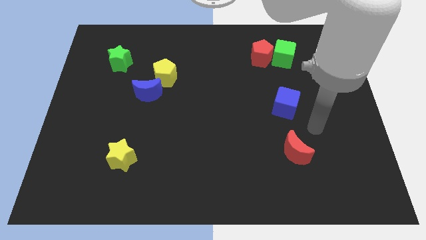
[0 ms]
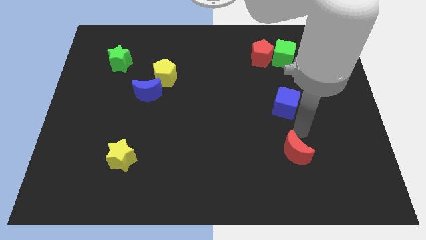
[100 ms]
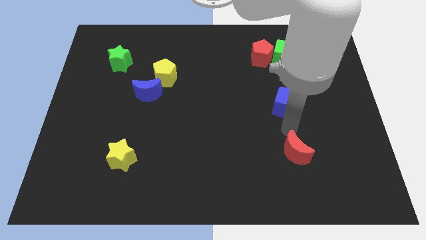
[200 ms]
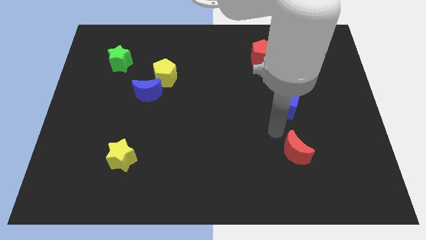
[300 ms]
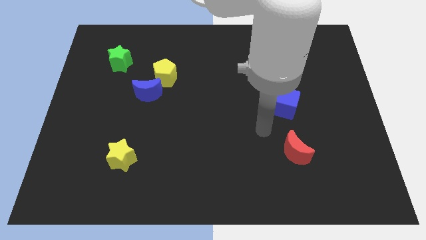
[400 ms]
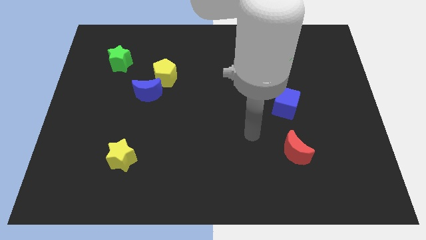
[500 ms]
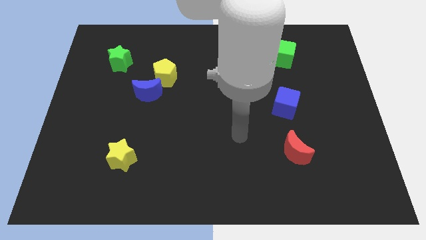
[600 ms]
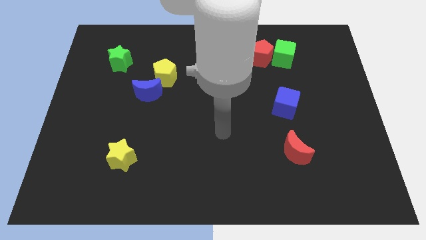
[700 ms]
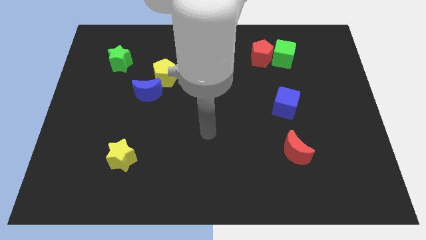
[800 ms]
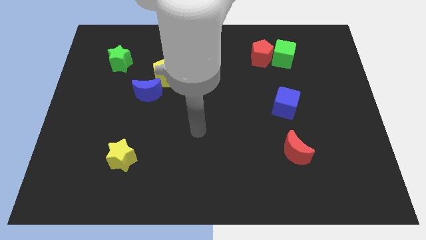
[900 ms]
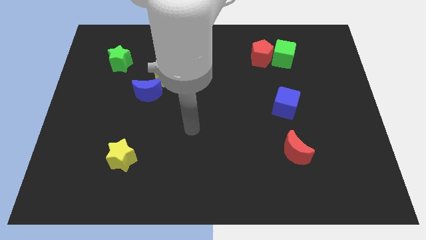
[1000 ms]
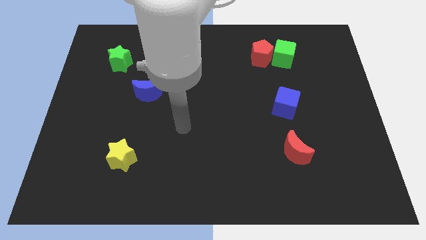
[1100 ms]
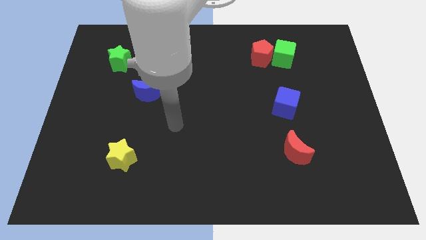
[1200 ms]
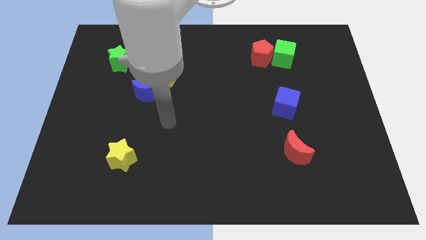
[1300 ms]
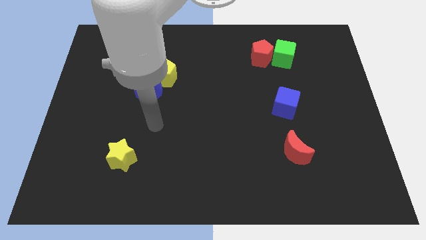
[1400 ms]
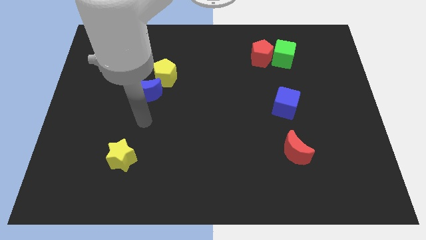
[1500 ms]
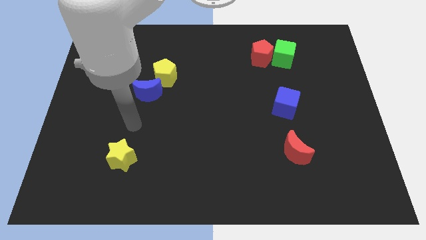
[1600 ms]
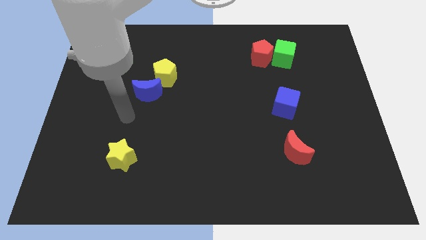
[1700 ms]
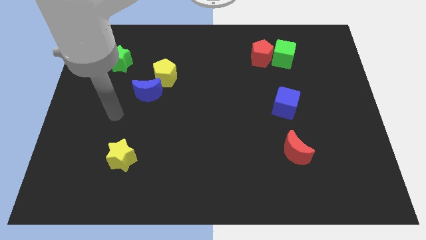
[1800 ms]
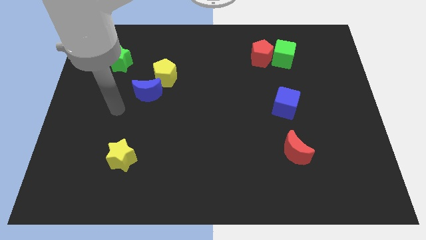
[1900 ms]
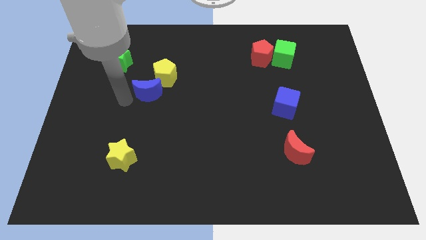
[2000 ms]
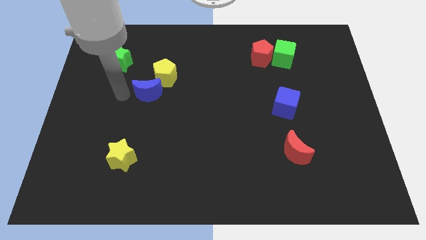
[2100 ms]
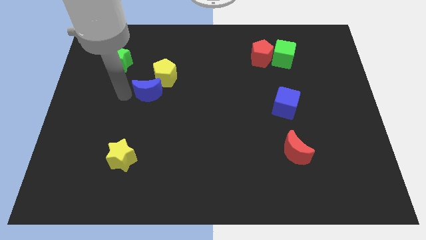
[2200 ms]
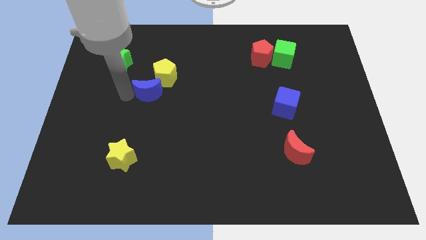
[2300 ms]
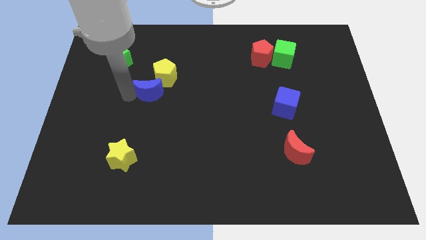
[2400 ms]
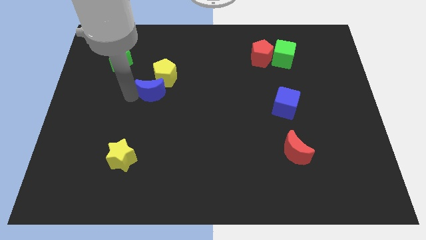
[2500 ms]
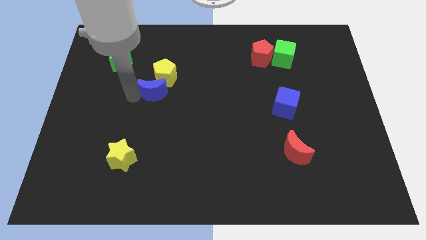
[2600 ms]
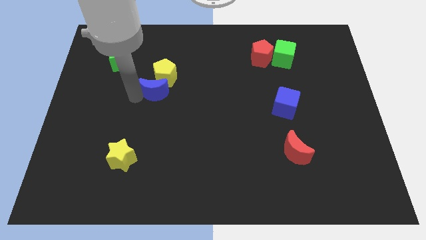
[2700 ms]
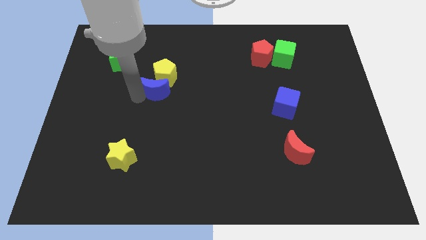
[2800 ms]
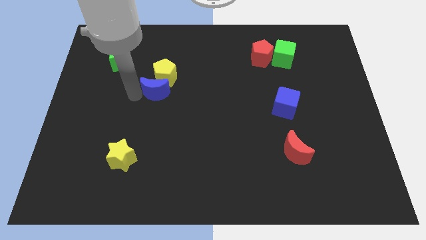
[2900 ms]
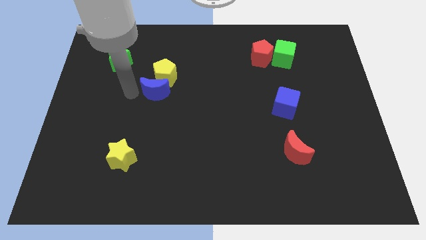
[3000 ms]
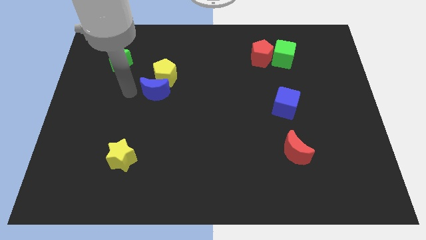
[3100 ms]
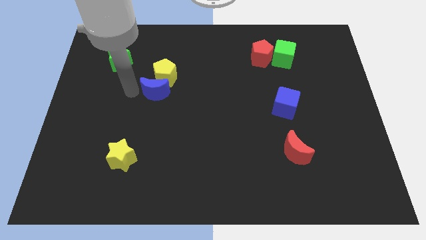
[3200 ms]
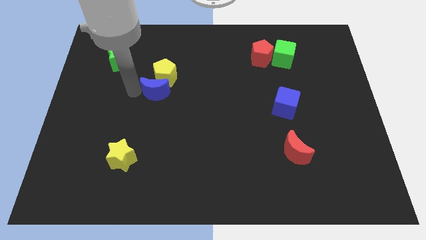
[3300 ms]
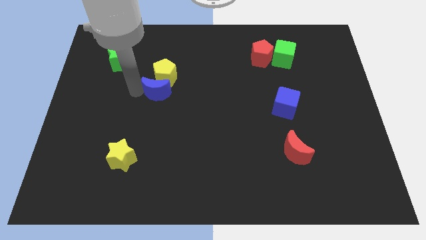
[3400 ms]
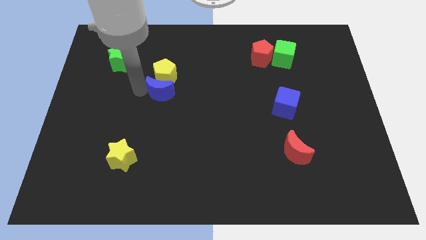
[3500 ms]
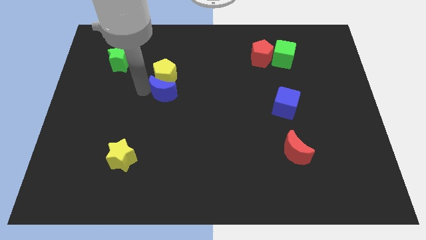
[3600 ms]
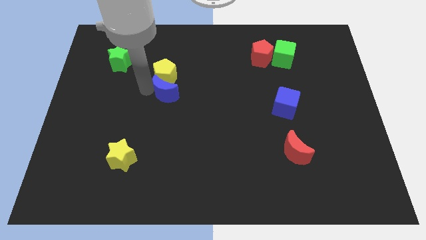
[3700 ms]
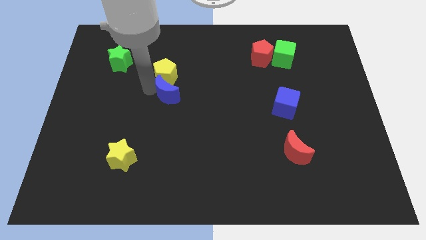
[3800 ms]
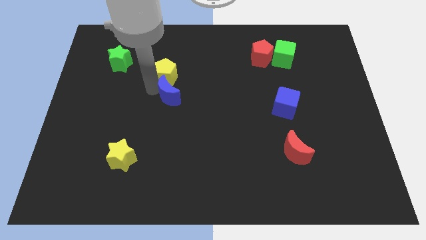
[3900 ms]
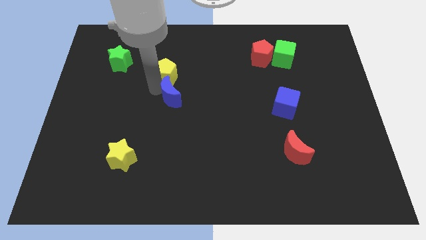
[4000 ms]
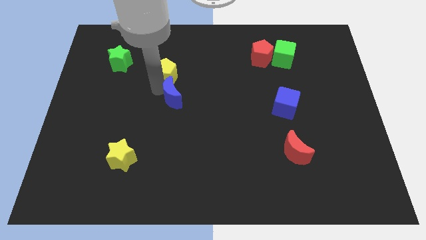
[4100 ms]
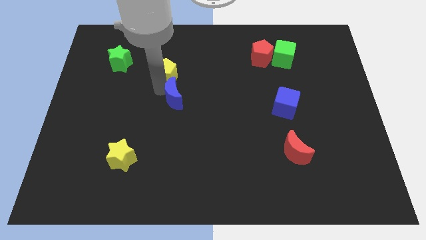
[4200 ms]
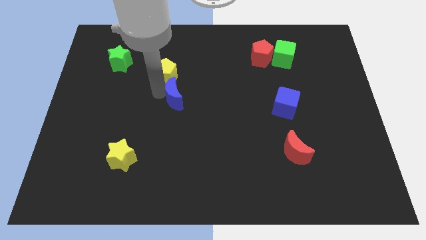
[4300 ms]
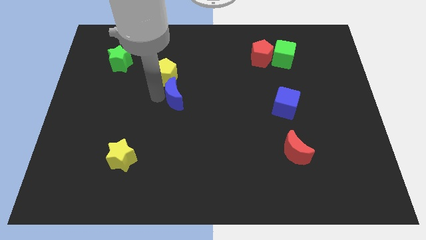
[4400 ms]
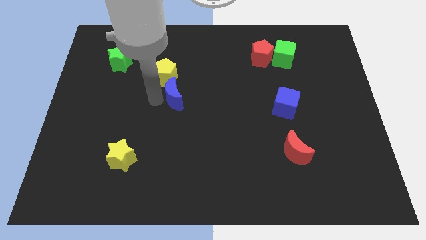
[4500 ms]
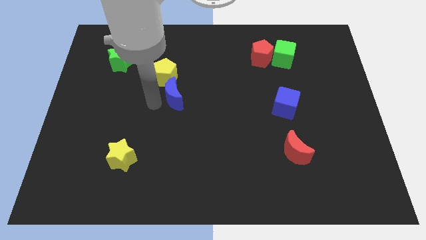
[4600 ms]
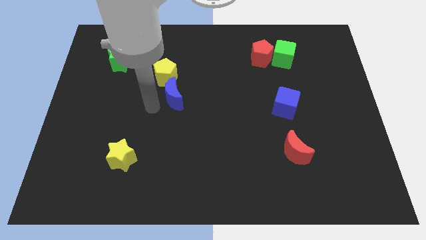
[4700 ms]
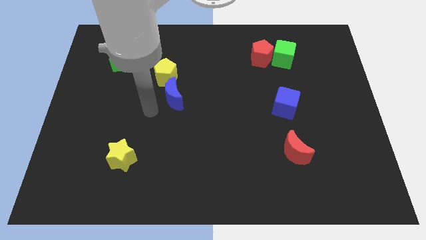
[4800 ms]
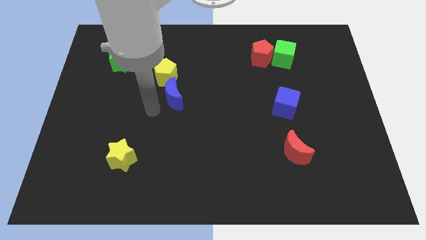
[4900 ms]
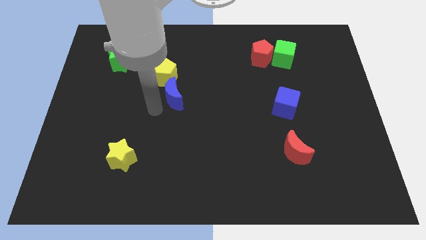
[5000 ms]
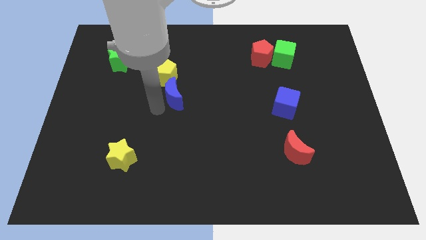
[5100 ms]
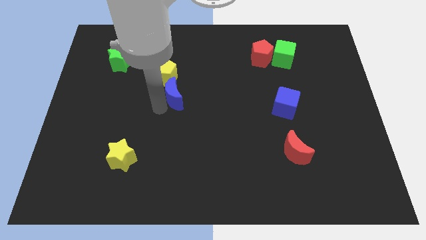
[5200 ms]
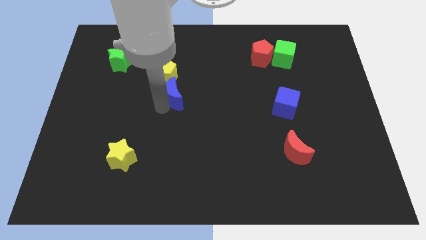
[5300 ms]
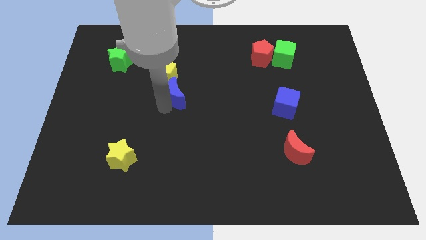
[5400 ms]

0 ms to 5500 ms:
slide the blue moon a bit to the right

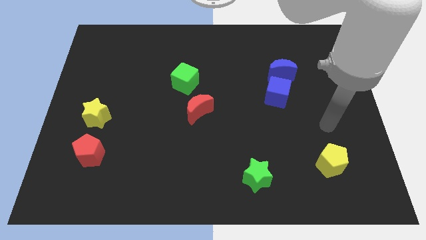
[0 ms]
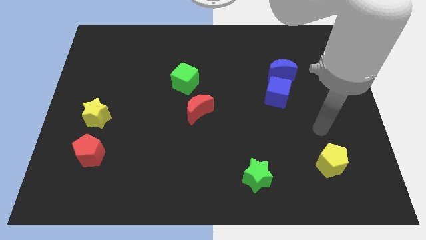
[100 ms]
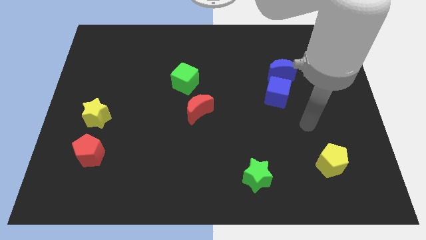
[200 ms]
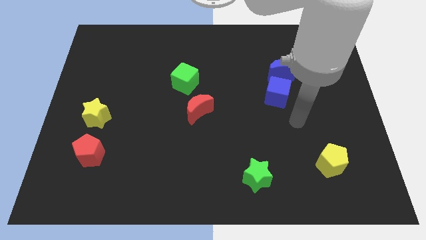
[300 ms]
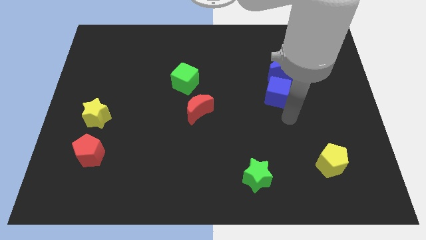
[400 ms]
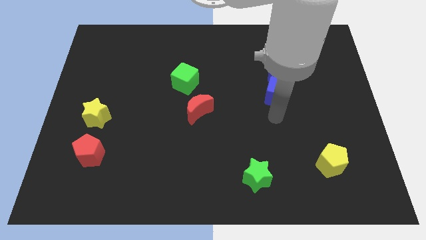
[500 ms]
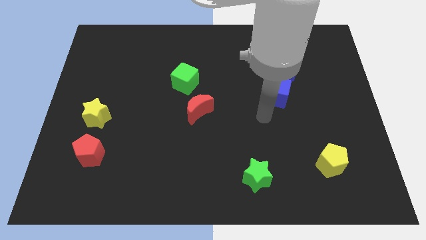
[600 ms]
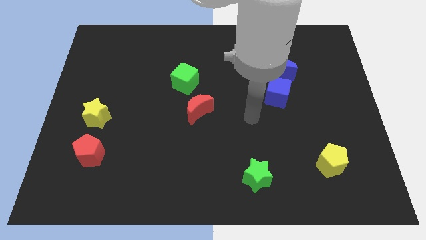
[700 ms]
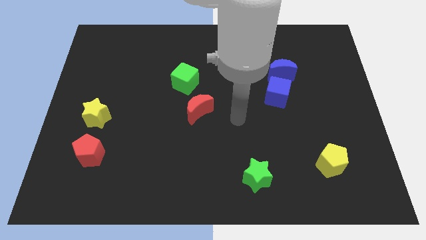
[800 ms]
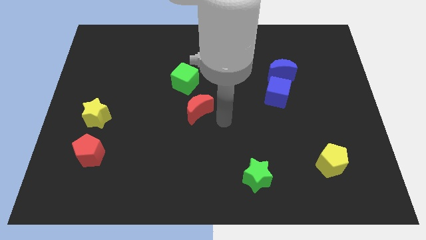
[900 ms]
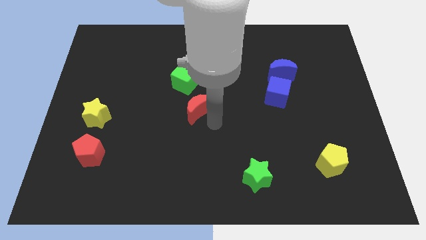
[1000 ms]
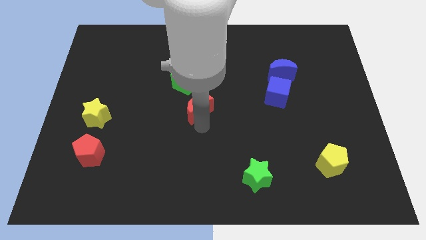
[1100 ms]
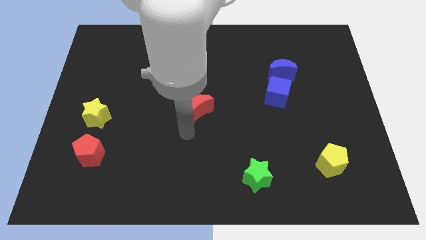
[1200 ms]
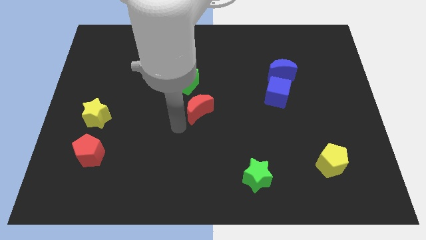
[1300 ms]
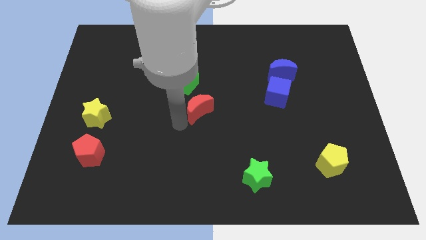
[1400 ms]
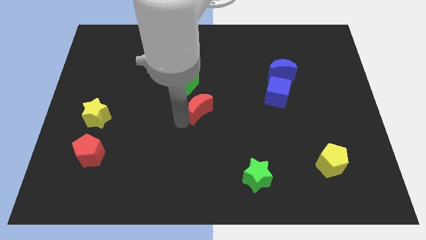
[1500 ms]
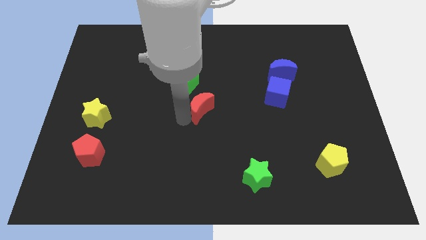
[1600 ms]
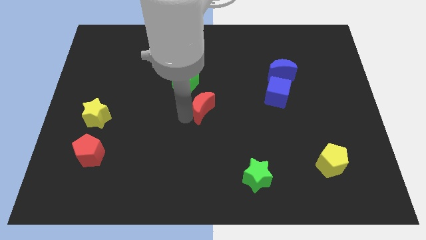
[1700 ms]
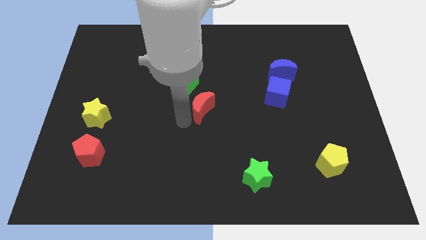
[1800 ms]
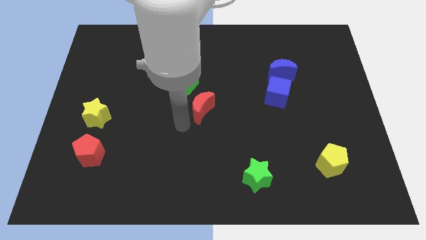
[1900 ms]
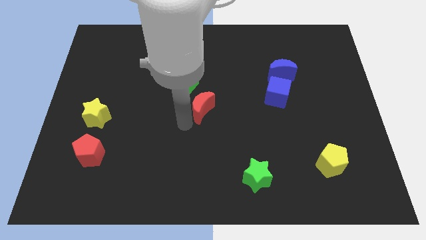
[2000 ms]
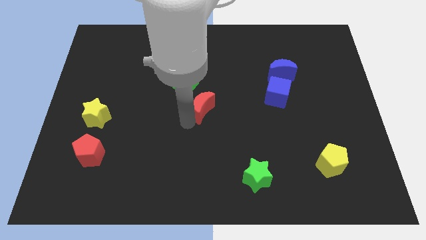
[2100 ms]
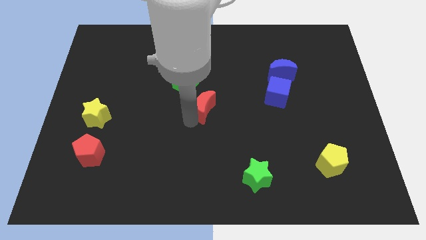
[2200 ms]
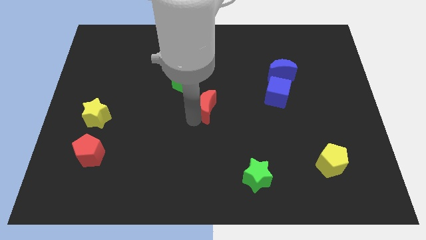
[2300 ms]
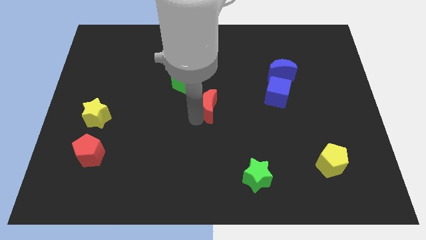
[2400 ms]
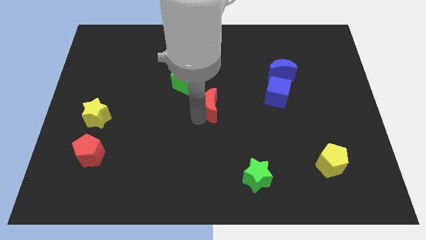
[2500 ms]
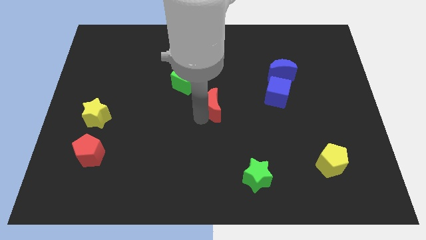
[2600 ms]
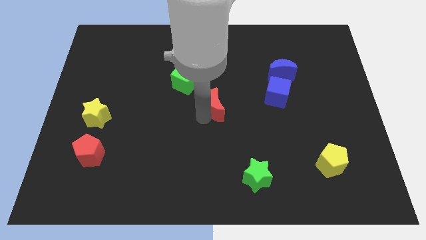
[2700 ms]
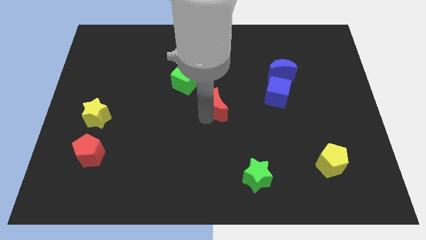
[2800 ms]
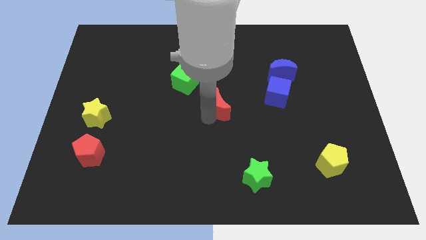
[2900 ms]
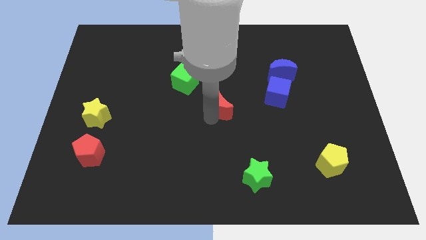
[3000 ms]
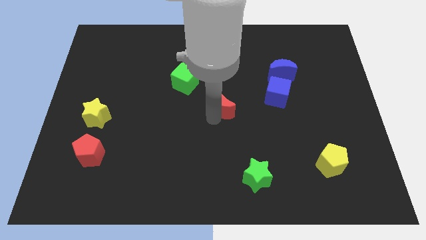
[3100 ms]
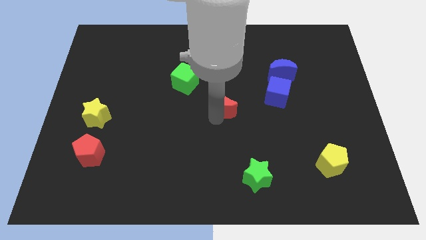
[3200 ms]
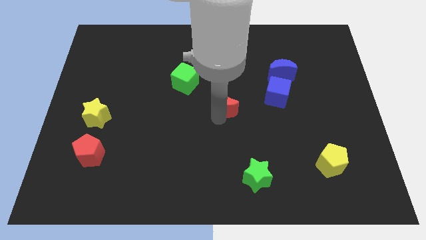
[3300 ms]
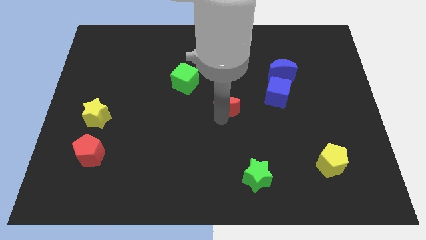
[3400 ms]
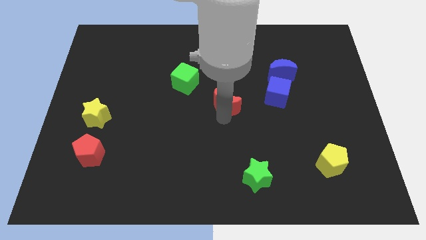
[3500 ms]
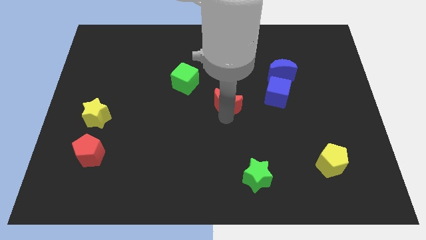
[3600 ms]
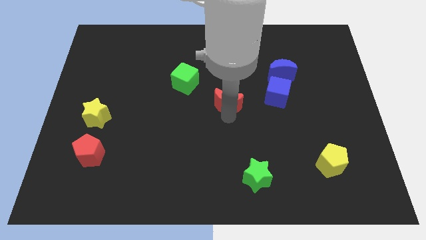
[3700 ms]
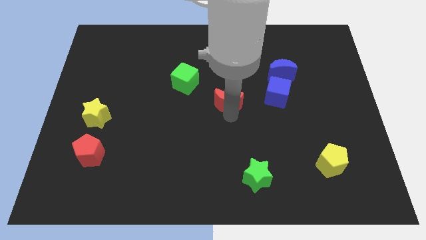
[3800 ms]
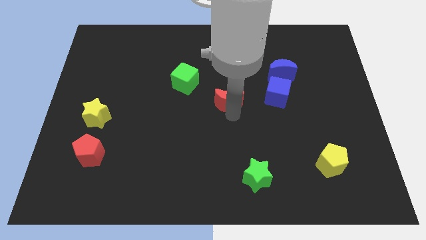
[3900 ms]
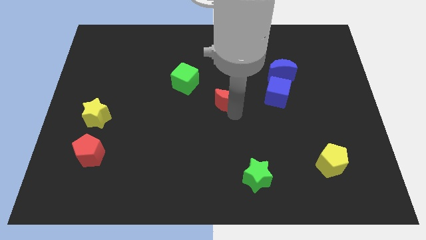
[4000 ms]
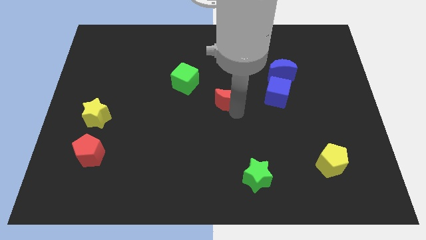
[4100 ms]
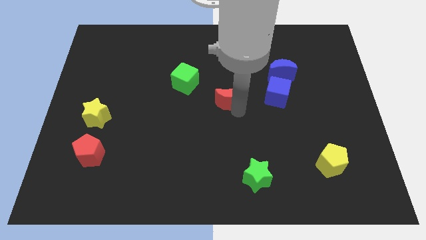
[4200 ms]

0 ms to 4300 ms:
slide the red moon a little upwards and right
